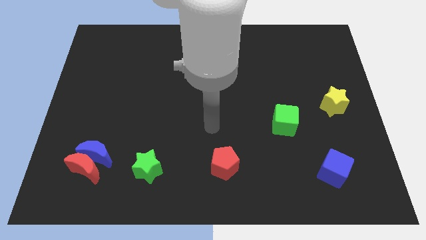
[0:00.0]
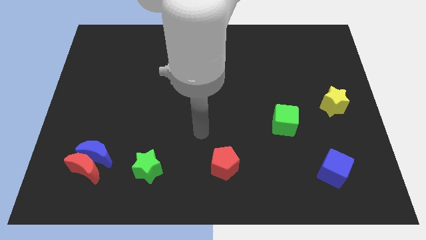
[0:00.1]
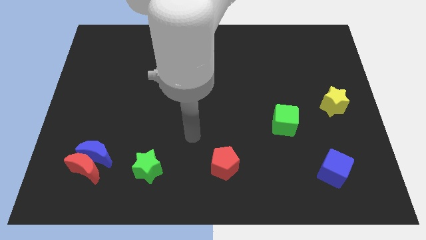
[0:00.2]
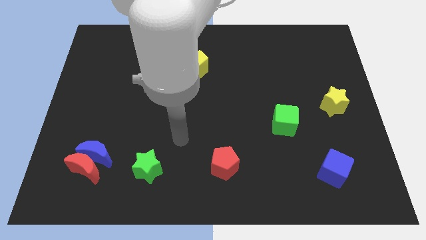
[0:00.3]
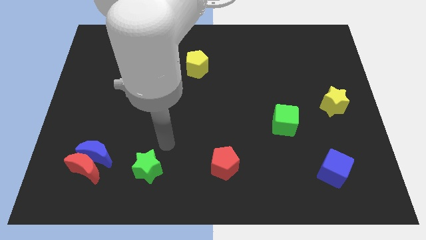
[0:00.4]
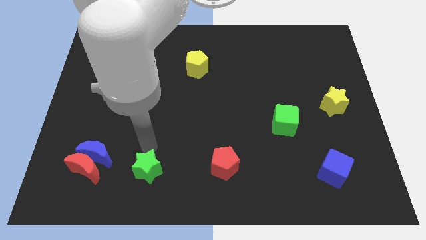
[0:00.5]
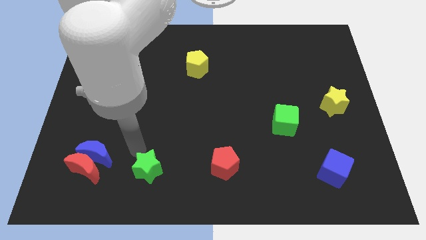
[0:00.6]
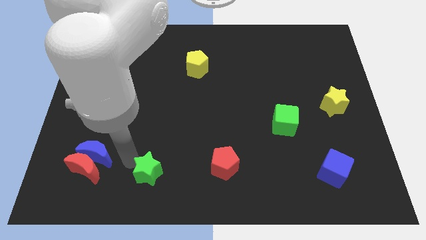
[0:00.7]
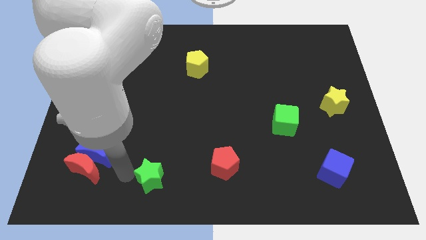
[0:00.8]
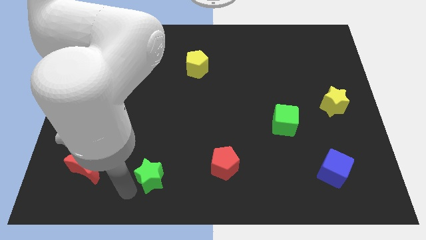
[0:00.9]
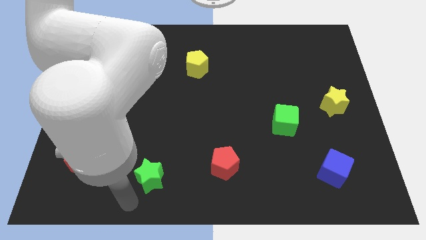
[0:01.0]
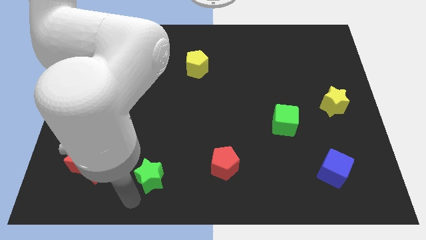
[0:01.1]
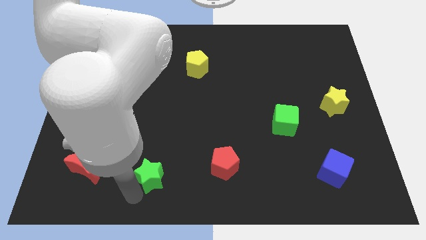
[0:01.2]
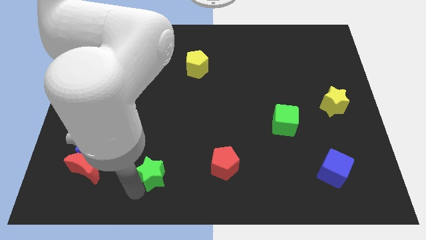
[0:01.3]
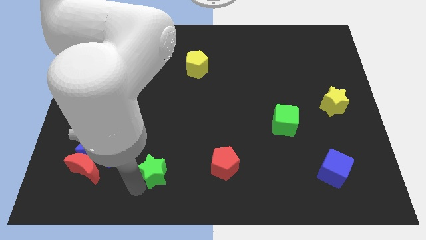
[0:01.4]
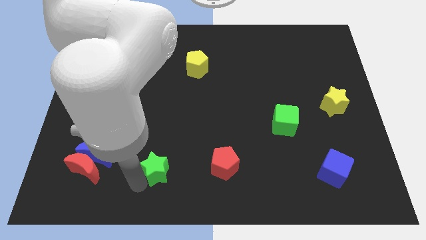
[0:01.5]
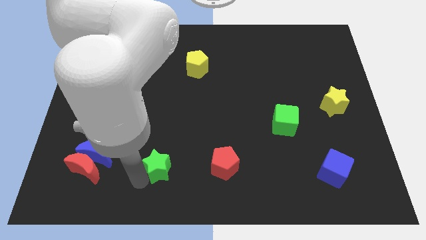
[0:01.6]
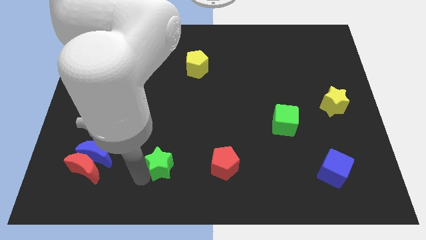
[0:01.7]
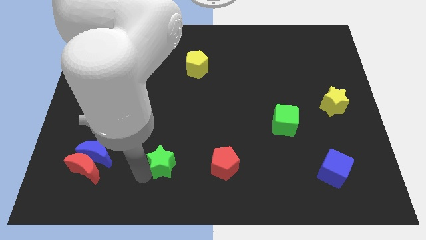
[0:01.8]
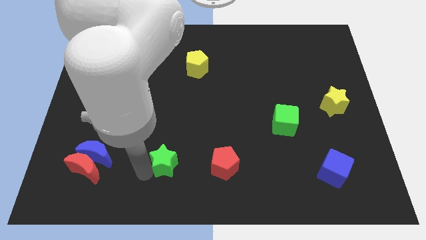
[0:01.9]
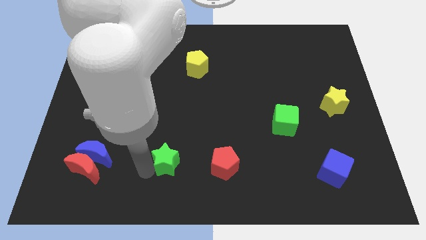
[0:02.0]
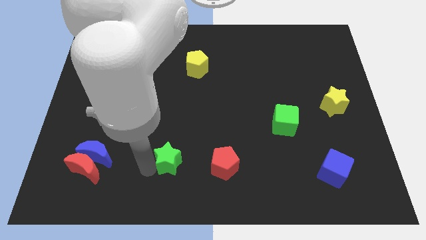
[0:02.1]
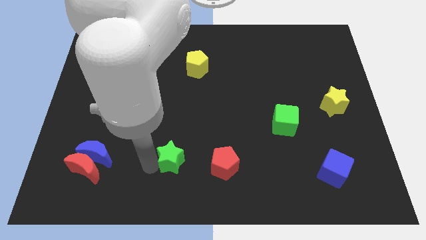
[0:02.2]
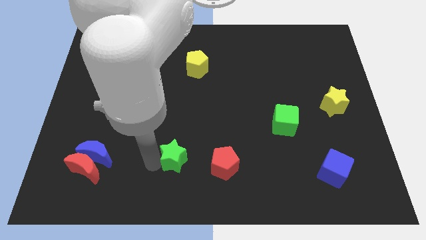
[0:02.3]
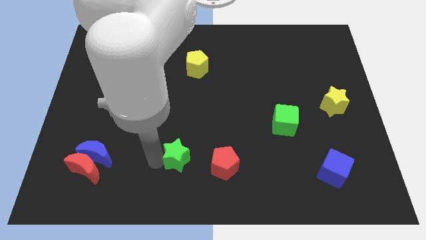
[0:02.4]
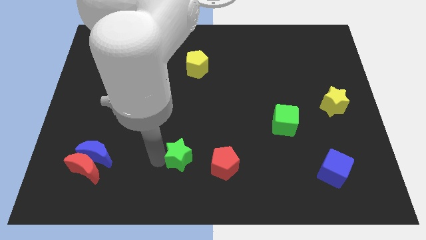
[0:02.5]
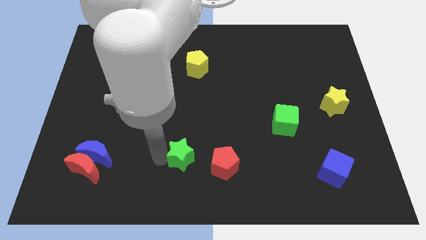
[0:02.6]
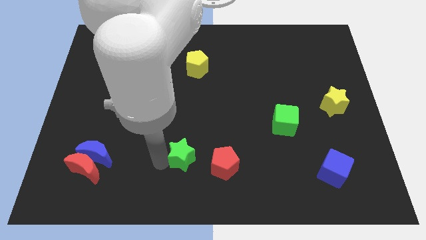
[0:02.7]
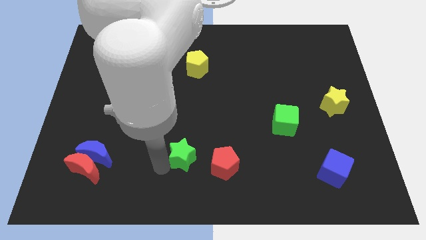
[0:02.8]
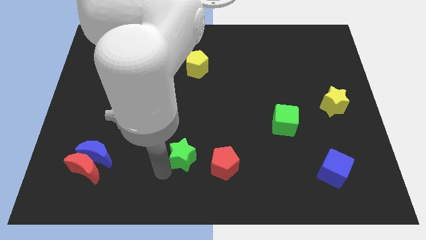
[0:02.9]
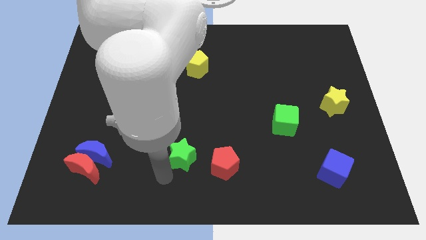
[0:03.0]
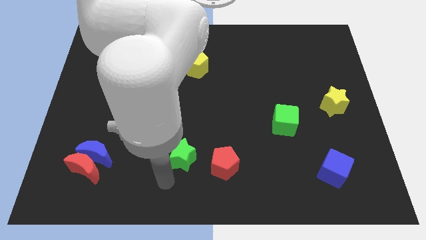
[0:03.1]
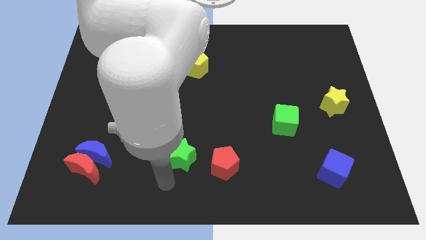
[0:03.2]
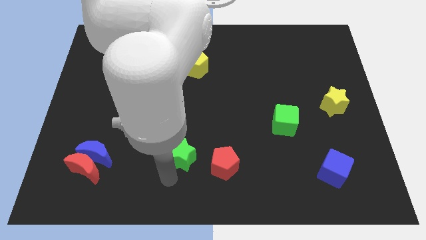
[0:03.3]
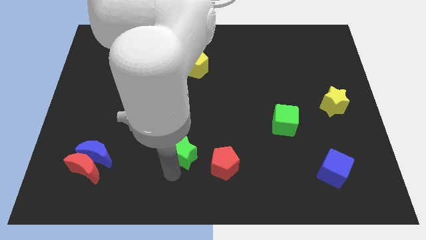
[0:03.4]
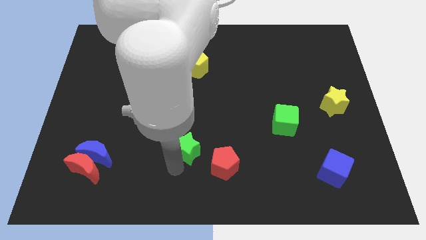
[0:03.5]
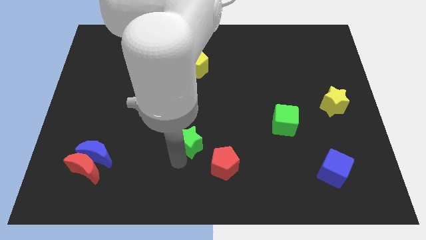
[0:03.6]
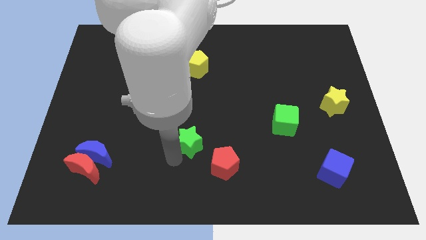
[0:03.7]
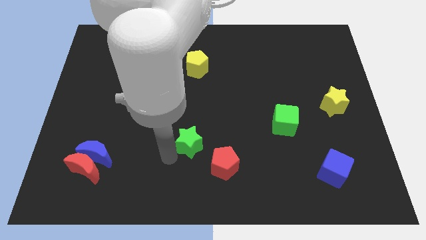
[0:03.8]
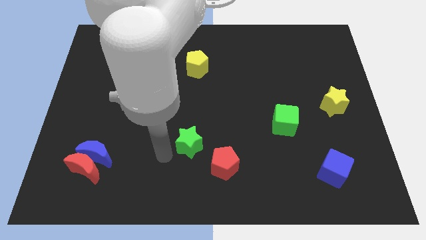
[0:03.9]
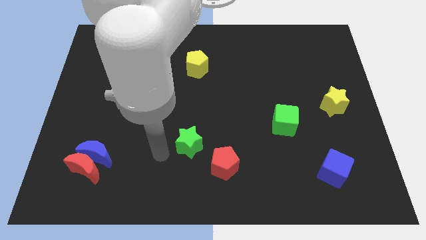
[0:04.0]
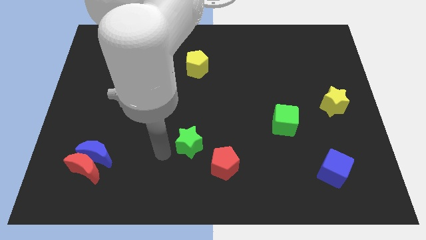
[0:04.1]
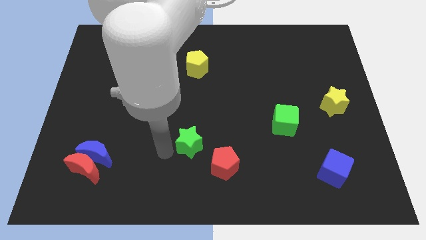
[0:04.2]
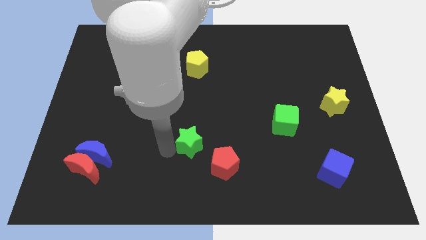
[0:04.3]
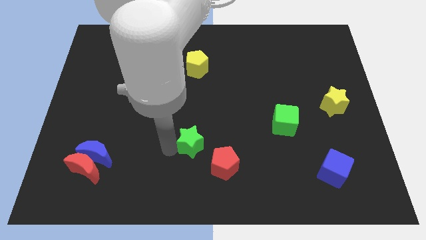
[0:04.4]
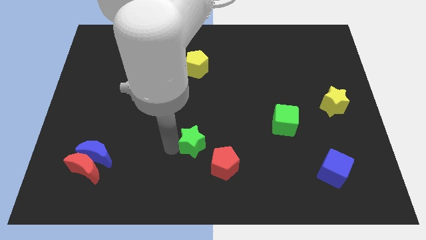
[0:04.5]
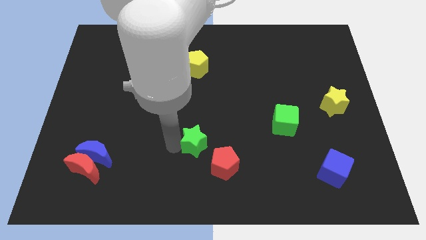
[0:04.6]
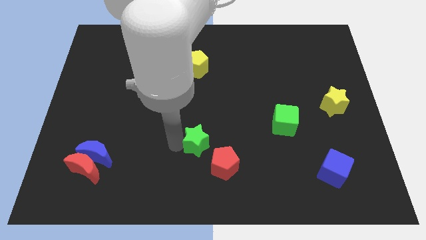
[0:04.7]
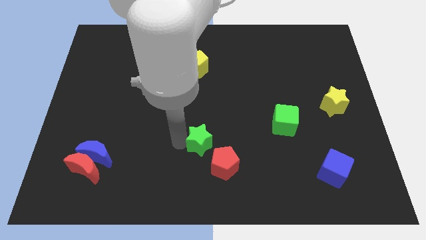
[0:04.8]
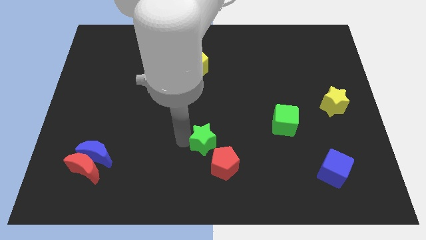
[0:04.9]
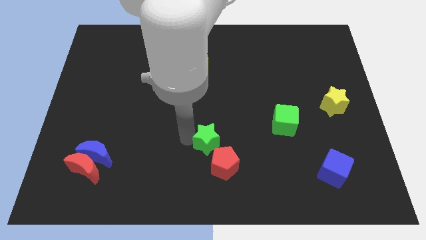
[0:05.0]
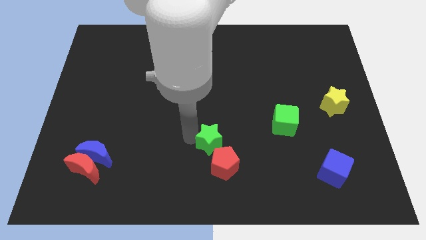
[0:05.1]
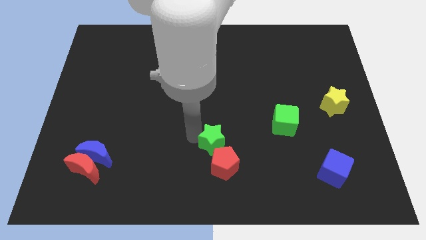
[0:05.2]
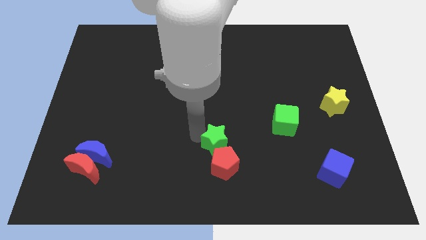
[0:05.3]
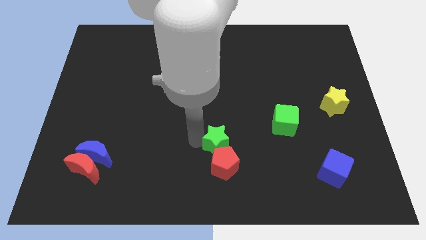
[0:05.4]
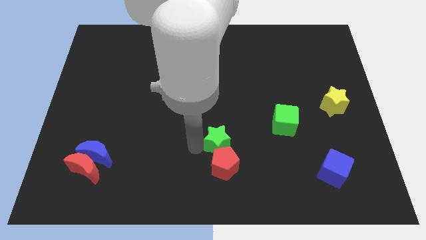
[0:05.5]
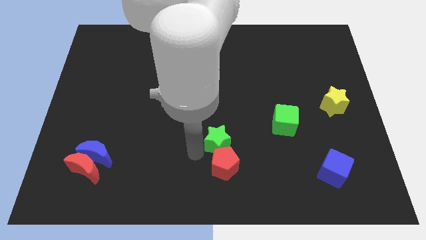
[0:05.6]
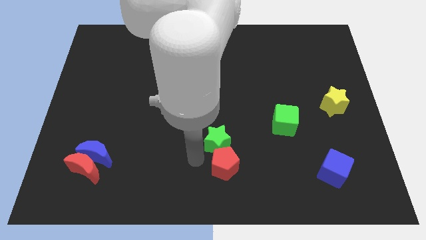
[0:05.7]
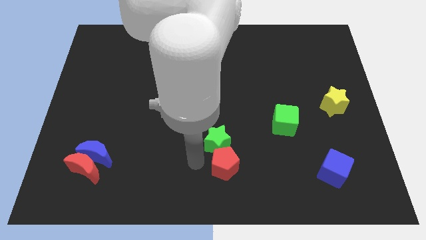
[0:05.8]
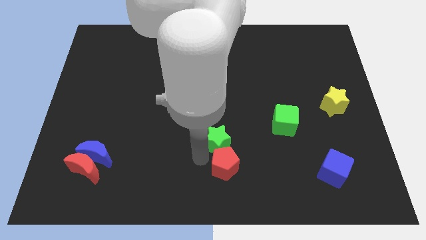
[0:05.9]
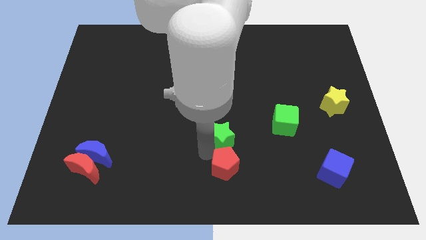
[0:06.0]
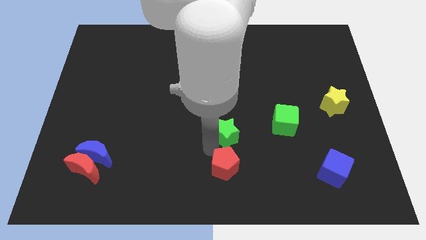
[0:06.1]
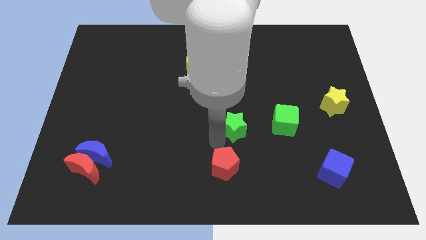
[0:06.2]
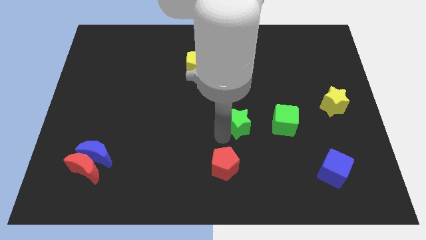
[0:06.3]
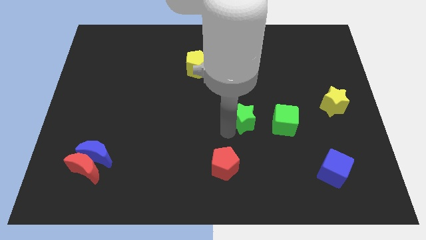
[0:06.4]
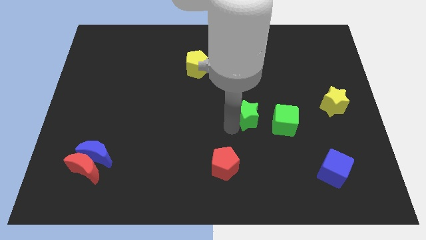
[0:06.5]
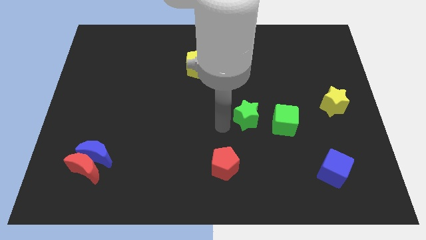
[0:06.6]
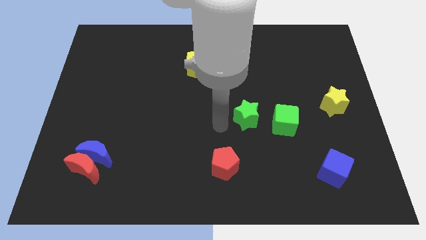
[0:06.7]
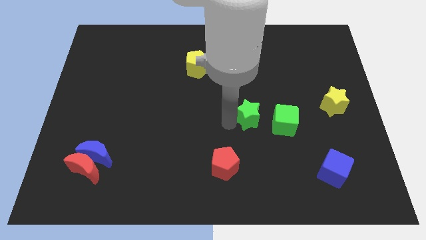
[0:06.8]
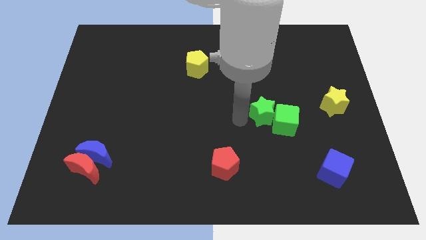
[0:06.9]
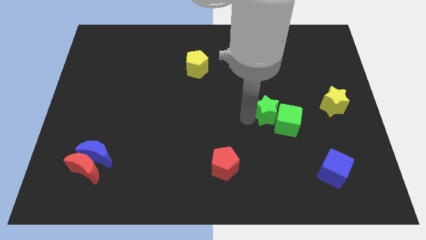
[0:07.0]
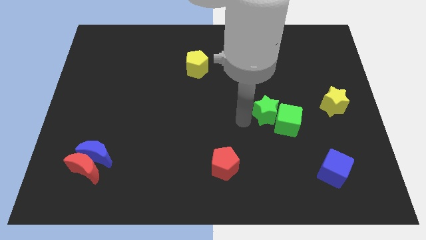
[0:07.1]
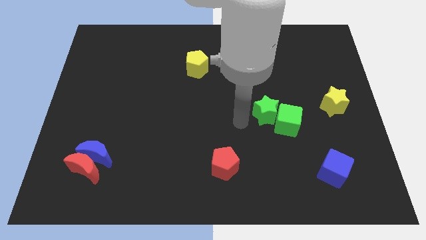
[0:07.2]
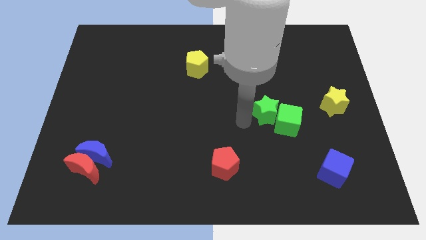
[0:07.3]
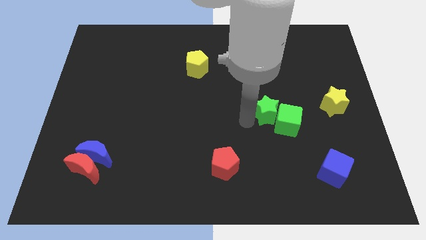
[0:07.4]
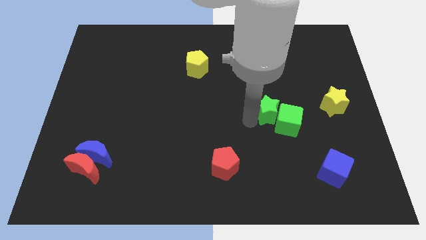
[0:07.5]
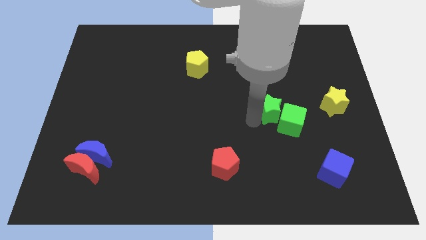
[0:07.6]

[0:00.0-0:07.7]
slide the green star just left of the yellow star
